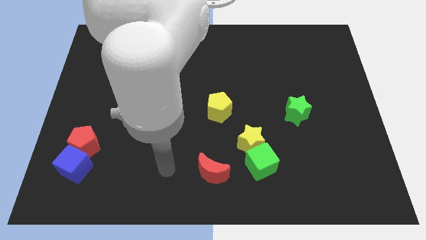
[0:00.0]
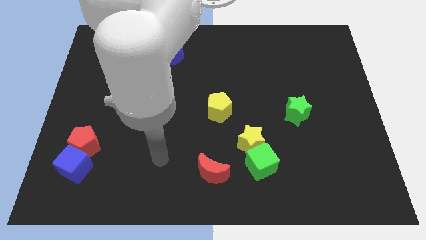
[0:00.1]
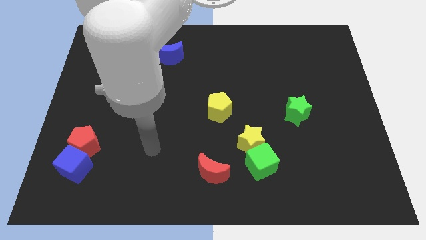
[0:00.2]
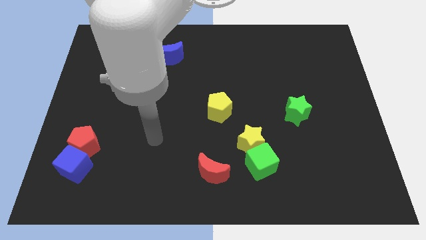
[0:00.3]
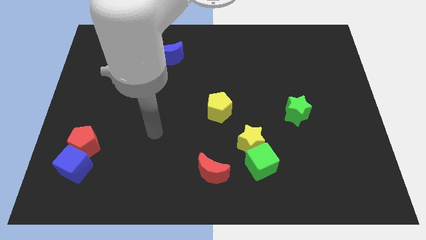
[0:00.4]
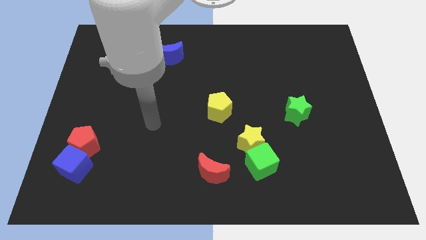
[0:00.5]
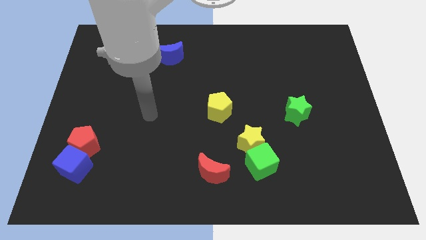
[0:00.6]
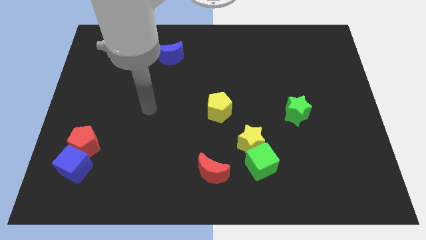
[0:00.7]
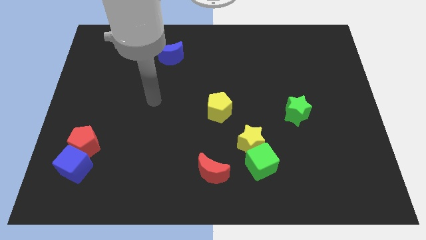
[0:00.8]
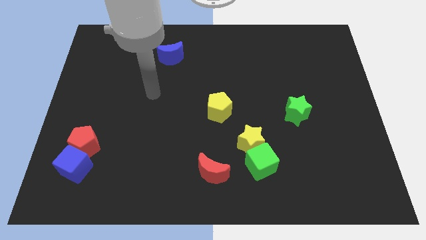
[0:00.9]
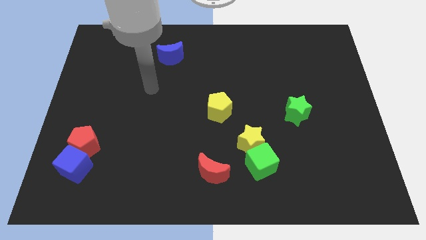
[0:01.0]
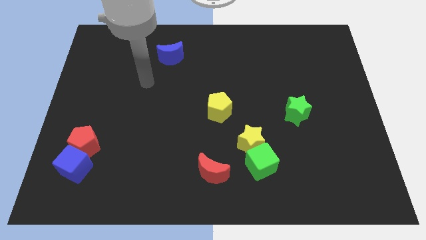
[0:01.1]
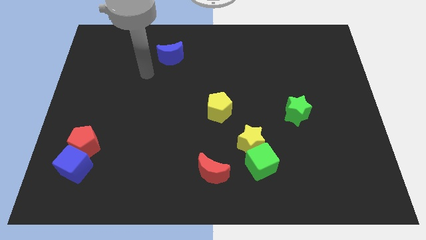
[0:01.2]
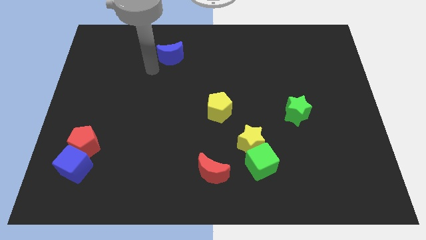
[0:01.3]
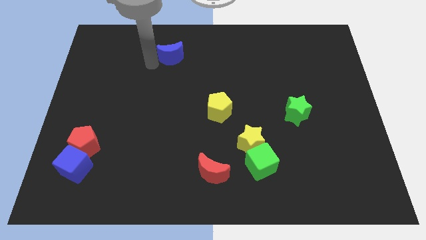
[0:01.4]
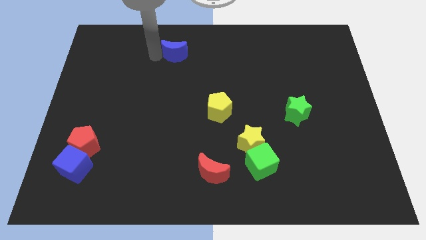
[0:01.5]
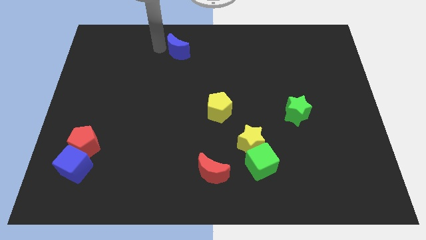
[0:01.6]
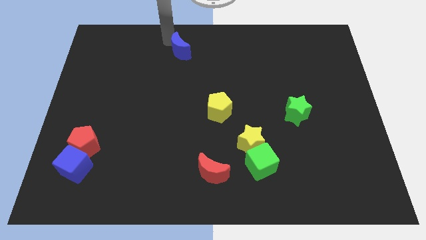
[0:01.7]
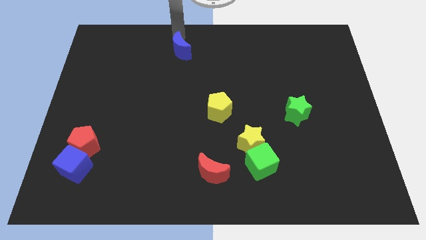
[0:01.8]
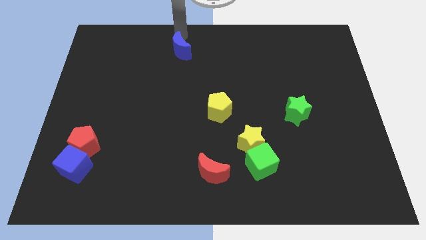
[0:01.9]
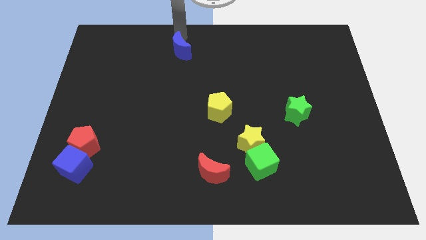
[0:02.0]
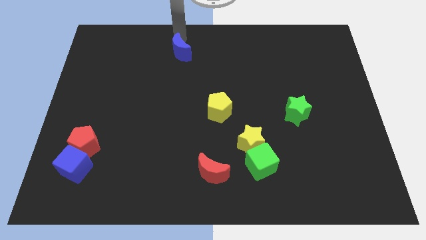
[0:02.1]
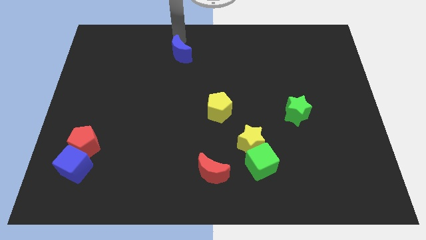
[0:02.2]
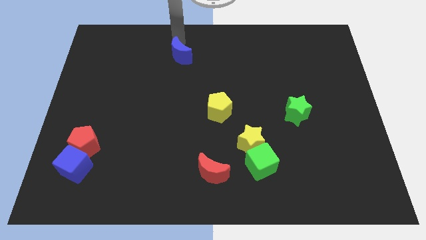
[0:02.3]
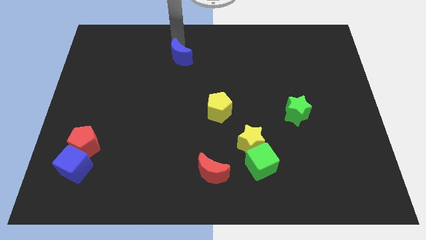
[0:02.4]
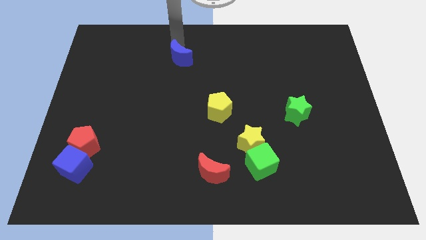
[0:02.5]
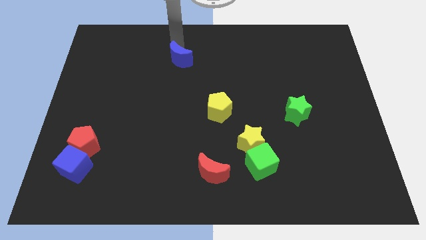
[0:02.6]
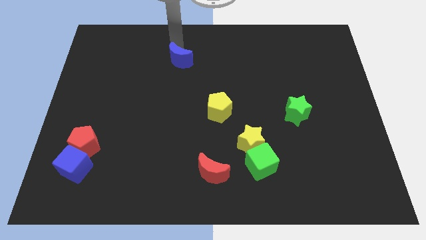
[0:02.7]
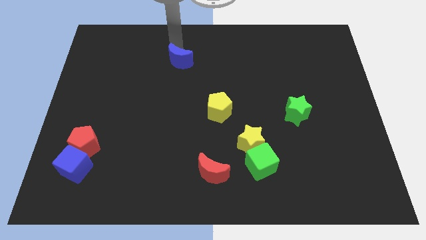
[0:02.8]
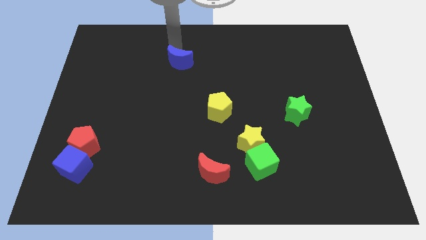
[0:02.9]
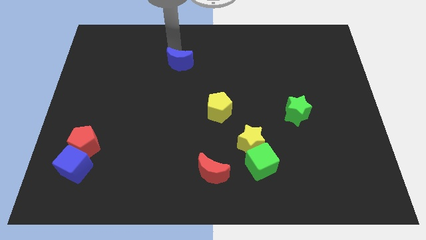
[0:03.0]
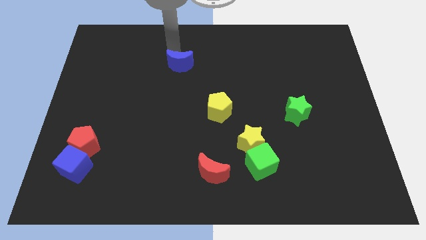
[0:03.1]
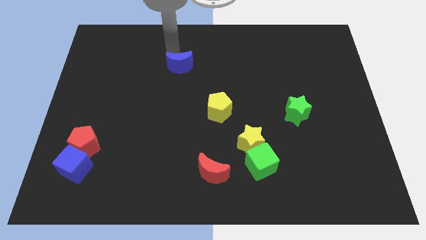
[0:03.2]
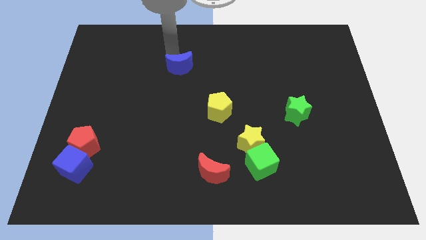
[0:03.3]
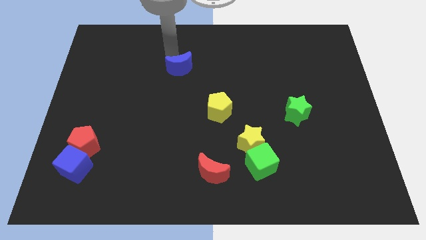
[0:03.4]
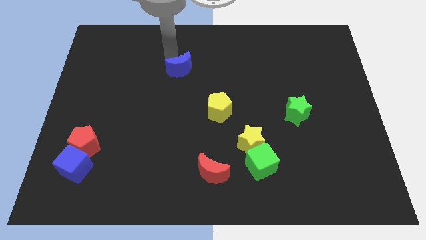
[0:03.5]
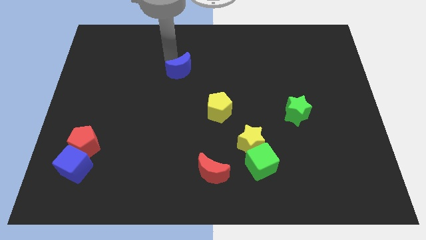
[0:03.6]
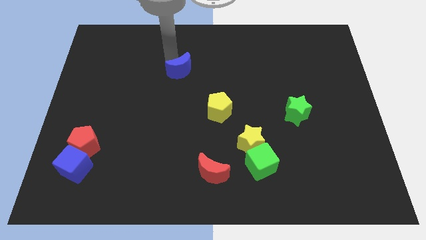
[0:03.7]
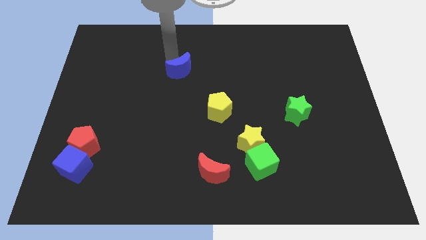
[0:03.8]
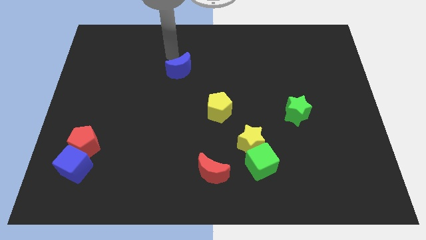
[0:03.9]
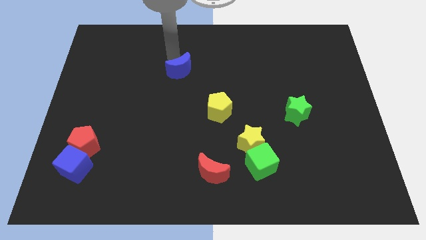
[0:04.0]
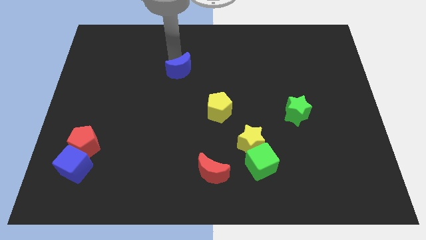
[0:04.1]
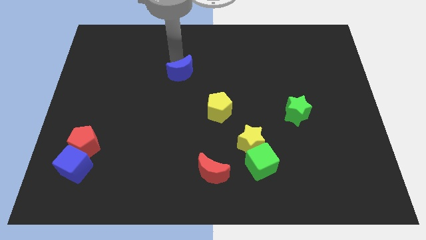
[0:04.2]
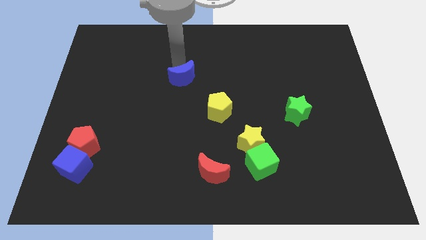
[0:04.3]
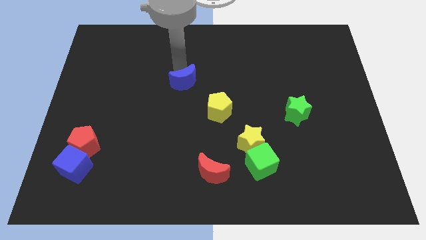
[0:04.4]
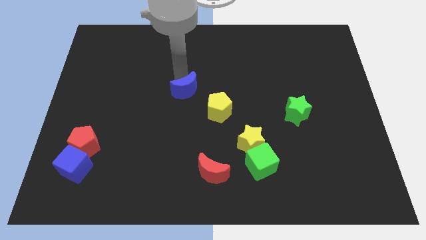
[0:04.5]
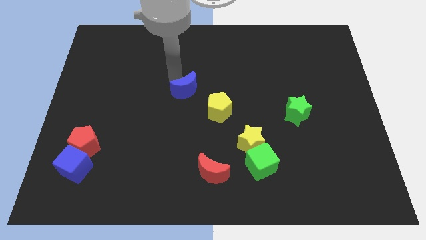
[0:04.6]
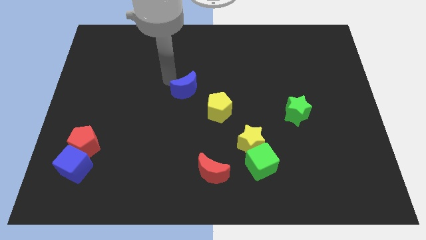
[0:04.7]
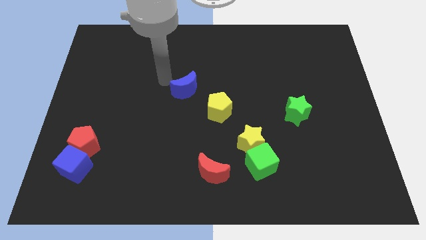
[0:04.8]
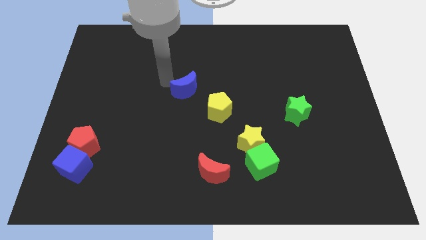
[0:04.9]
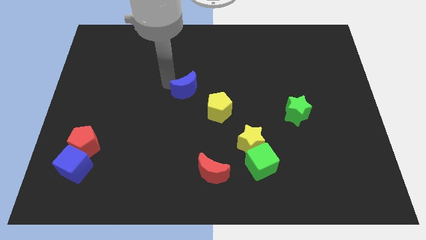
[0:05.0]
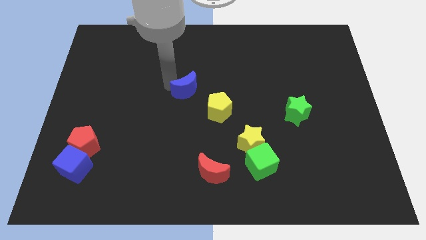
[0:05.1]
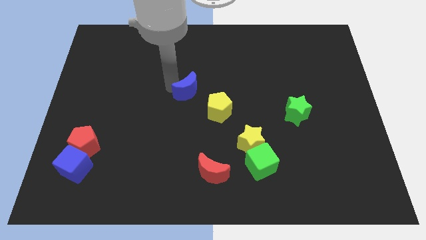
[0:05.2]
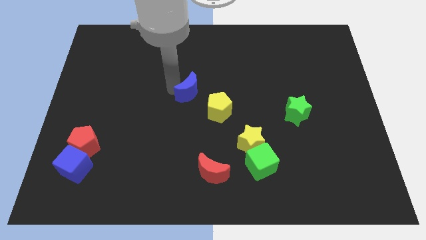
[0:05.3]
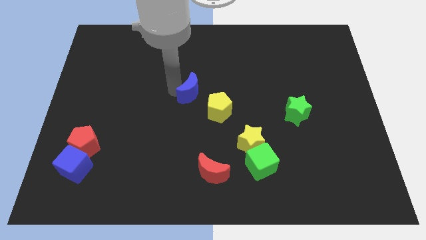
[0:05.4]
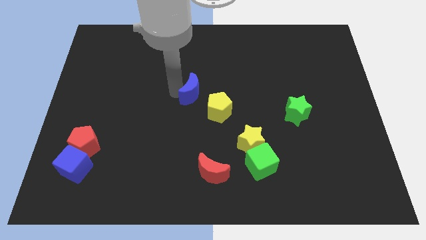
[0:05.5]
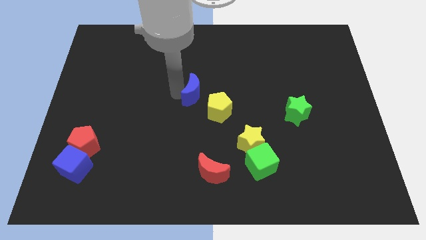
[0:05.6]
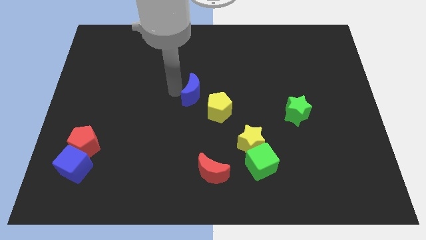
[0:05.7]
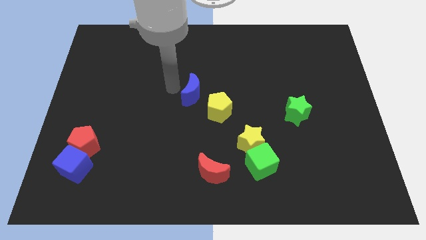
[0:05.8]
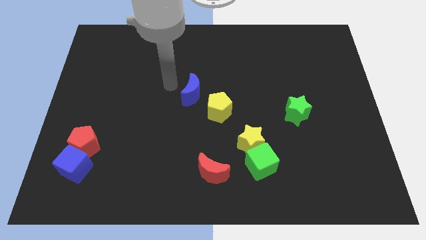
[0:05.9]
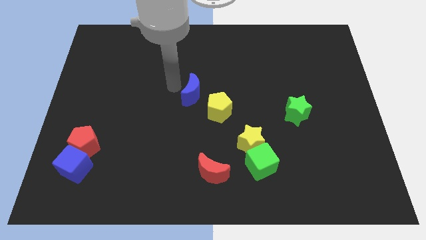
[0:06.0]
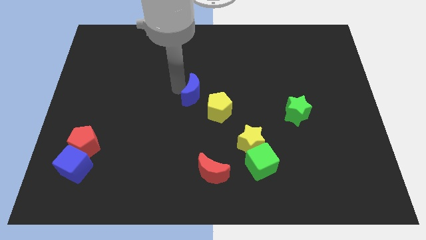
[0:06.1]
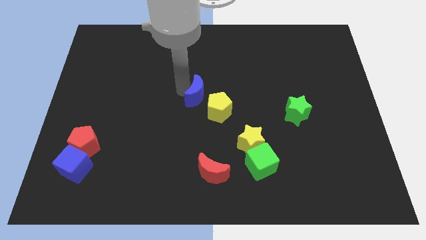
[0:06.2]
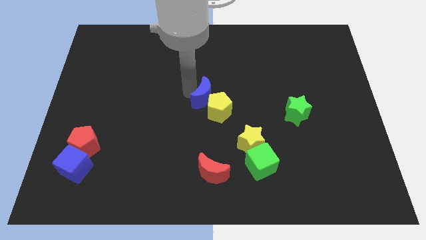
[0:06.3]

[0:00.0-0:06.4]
push the blue moon next to the yellow pentagon

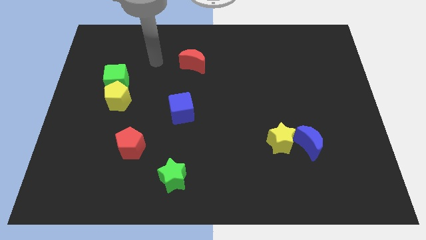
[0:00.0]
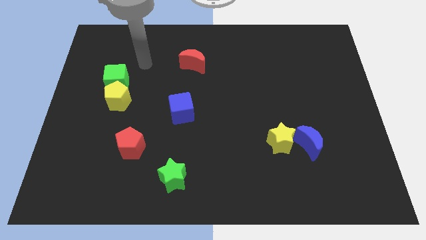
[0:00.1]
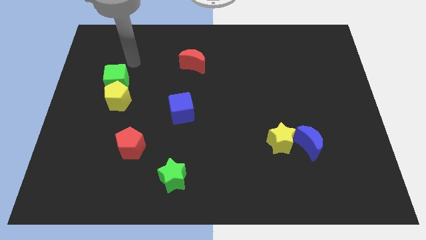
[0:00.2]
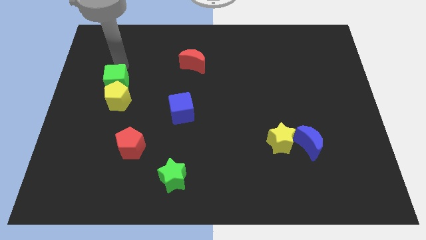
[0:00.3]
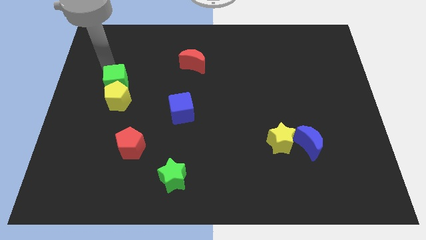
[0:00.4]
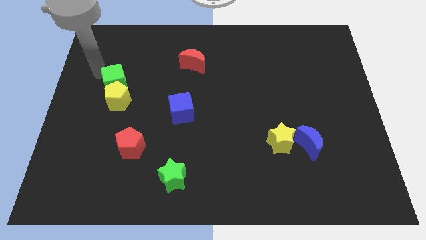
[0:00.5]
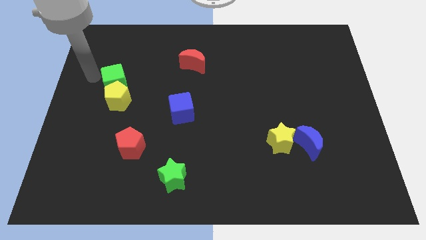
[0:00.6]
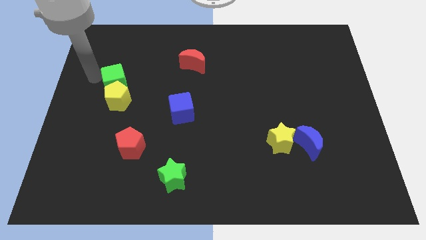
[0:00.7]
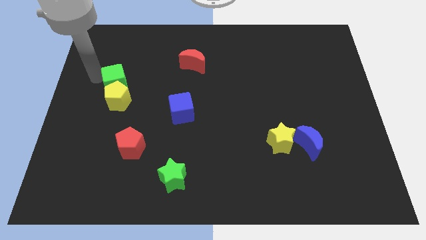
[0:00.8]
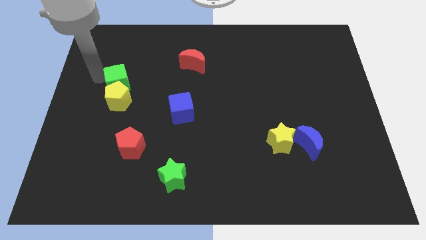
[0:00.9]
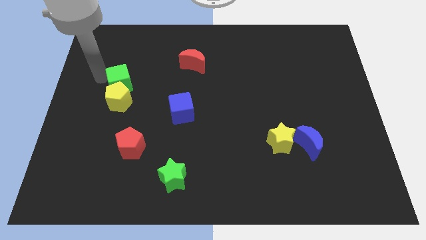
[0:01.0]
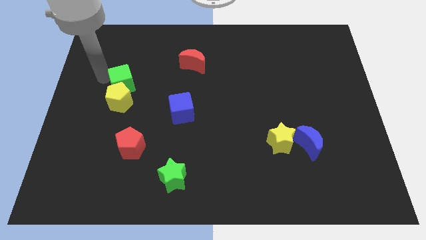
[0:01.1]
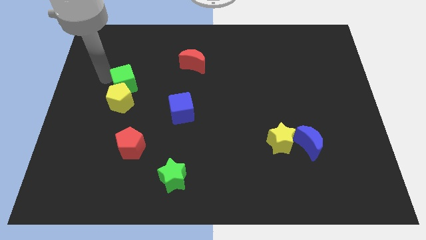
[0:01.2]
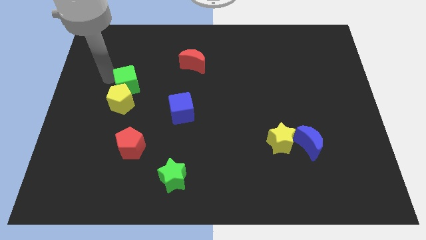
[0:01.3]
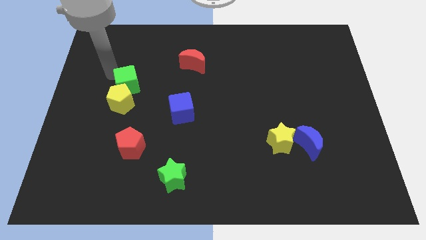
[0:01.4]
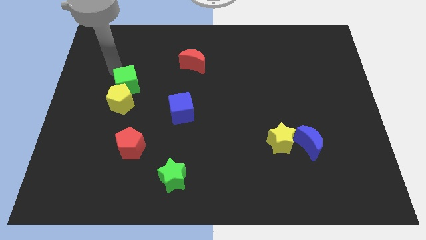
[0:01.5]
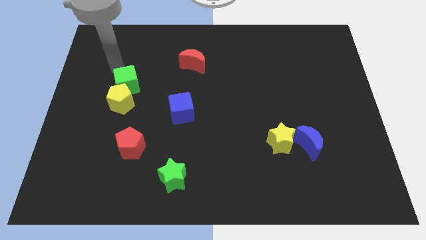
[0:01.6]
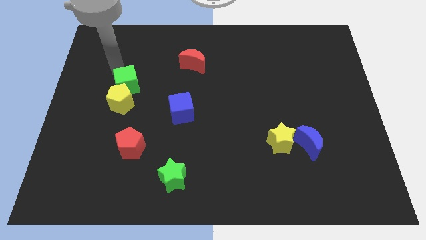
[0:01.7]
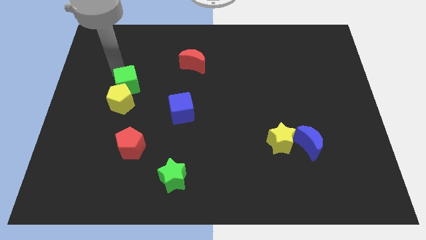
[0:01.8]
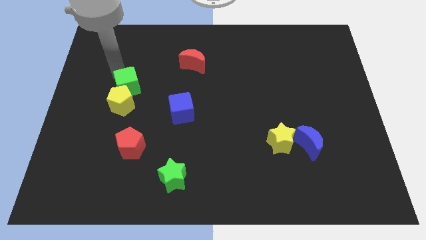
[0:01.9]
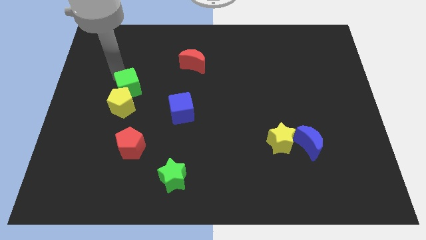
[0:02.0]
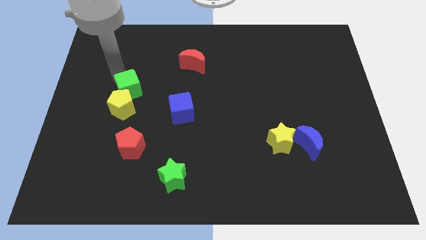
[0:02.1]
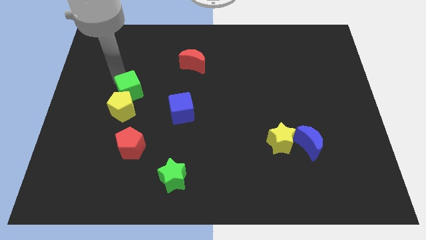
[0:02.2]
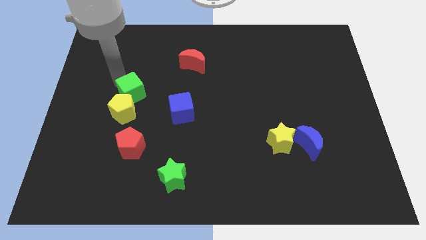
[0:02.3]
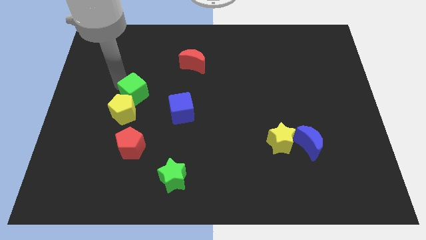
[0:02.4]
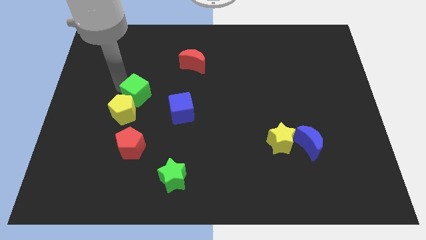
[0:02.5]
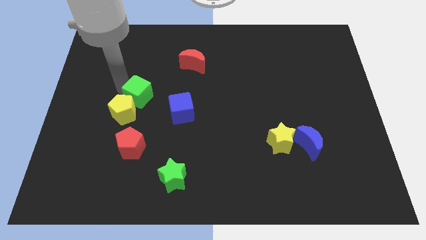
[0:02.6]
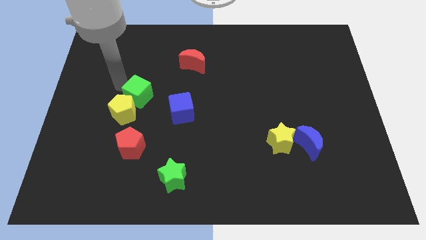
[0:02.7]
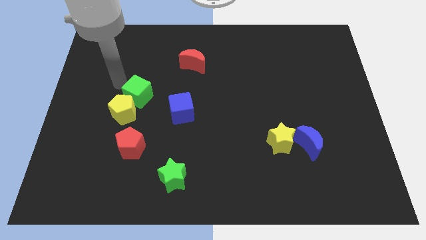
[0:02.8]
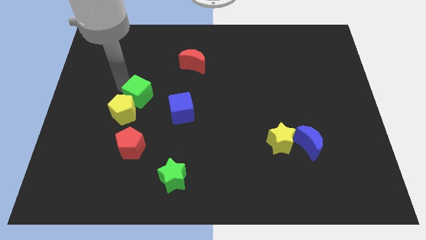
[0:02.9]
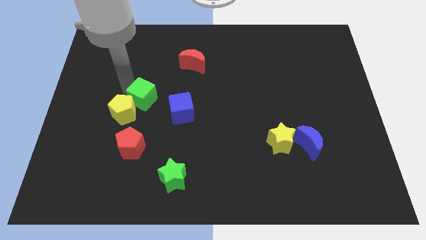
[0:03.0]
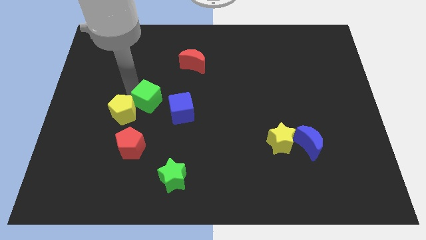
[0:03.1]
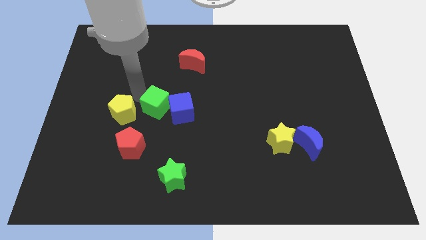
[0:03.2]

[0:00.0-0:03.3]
push the green cube next to the blue cube
